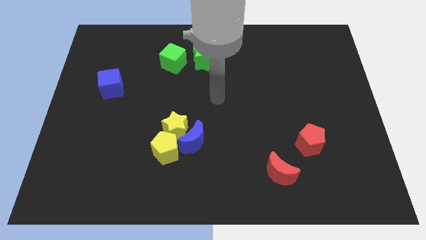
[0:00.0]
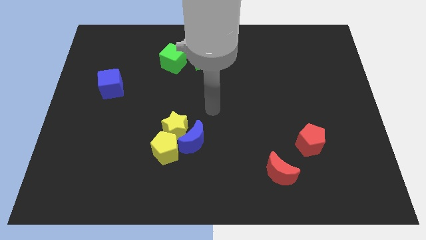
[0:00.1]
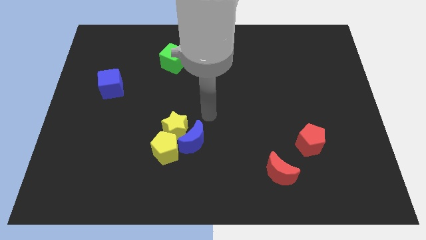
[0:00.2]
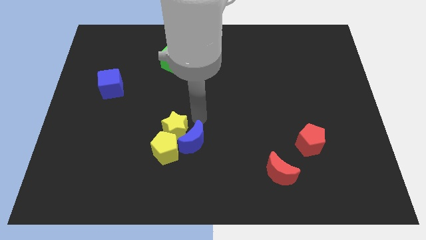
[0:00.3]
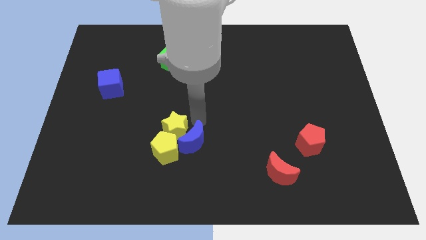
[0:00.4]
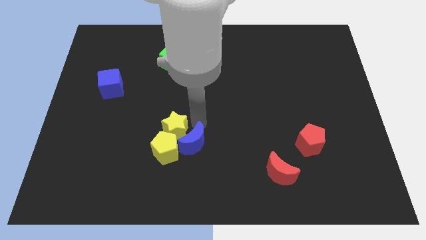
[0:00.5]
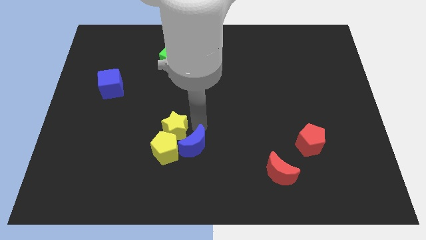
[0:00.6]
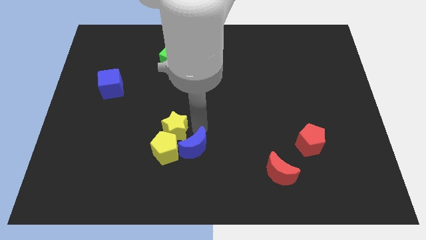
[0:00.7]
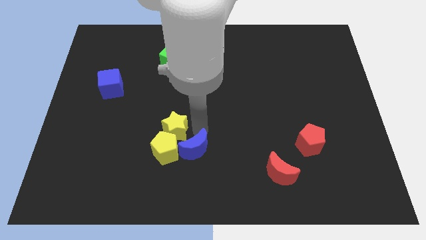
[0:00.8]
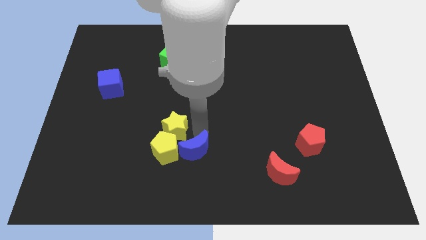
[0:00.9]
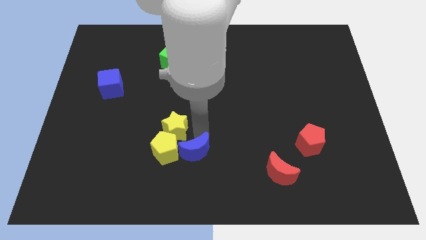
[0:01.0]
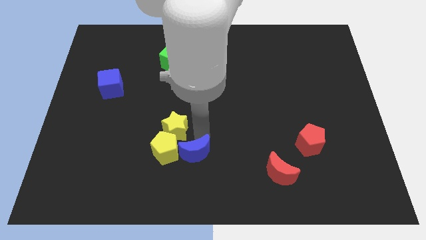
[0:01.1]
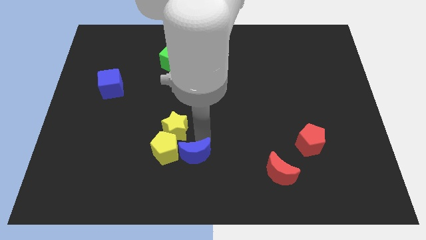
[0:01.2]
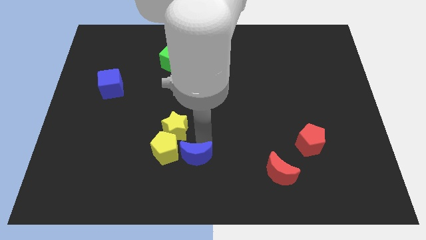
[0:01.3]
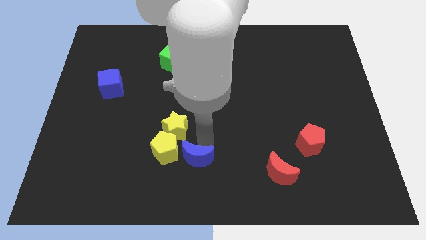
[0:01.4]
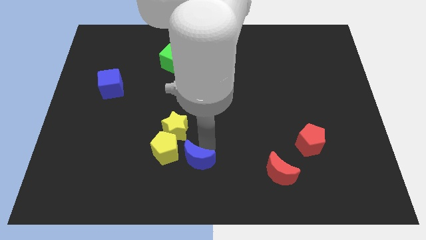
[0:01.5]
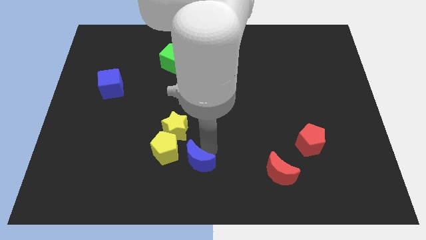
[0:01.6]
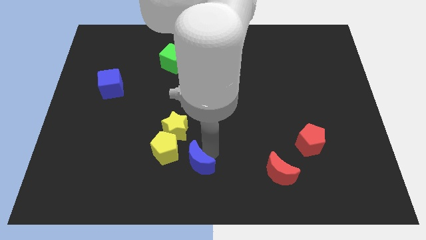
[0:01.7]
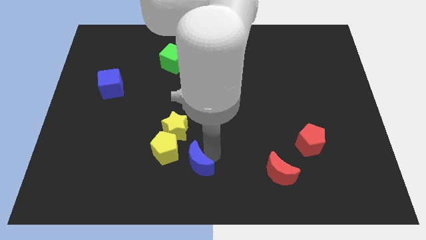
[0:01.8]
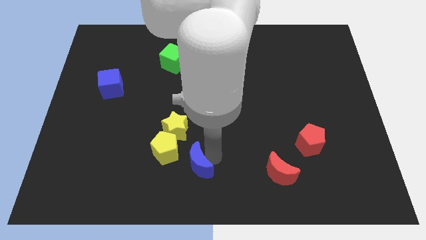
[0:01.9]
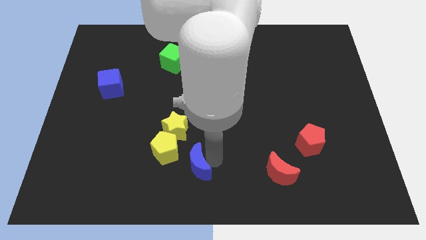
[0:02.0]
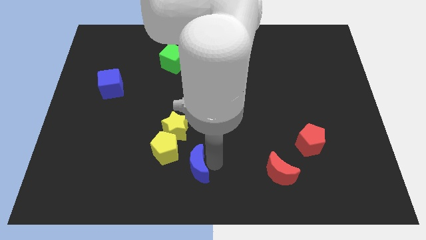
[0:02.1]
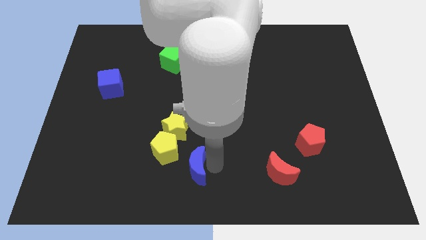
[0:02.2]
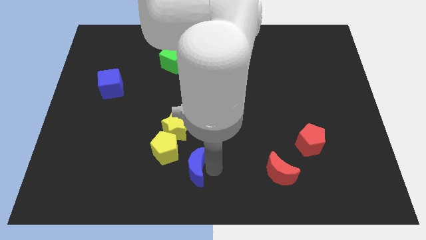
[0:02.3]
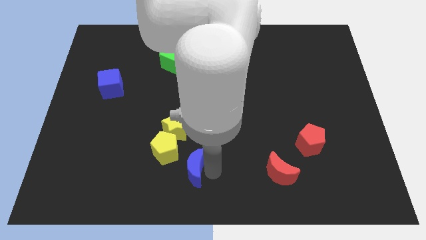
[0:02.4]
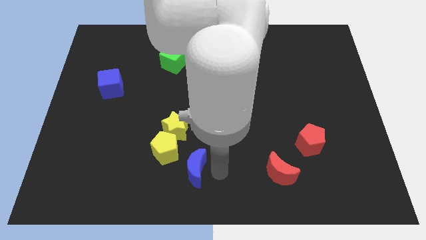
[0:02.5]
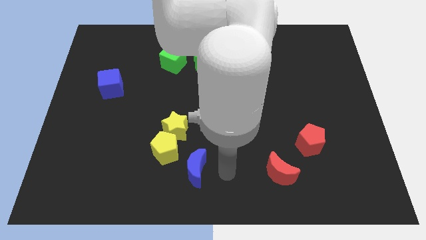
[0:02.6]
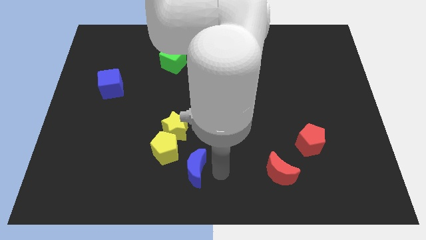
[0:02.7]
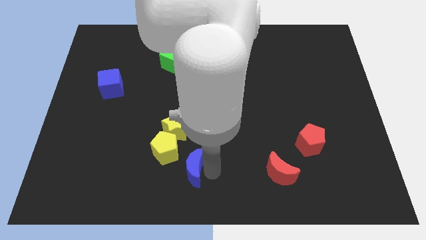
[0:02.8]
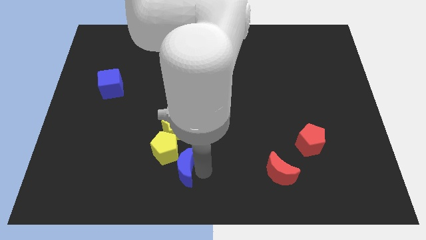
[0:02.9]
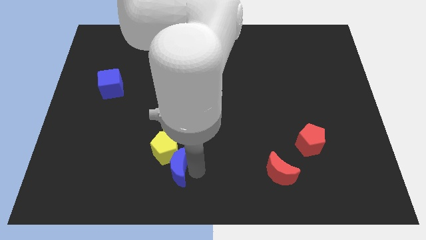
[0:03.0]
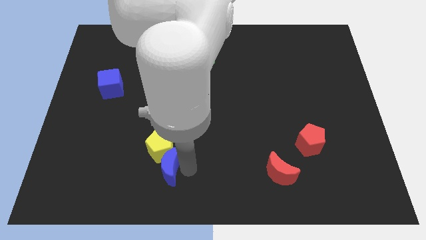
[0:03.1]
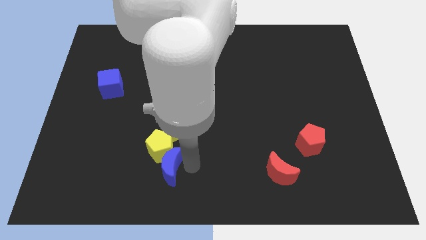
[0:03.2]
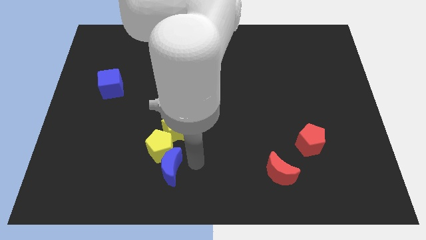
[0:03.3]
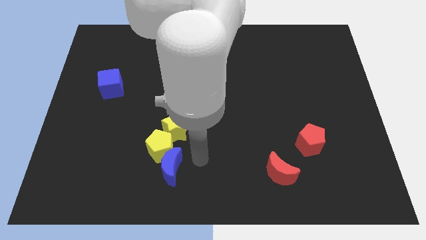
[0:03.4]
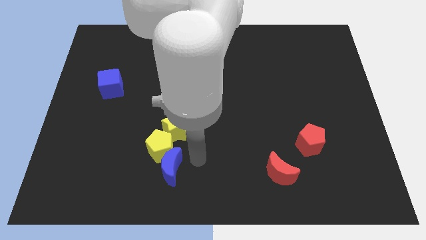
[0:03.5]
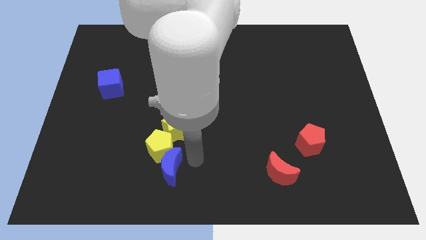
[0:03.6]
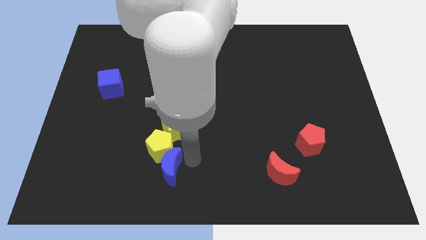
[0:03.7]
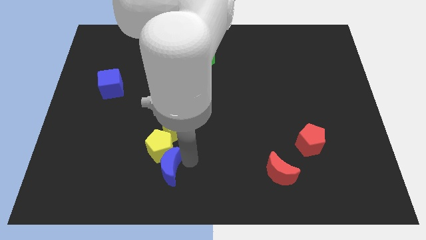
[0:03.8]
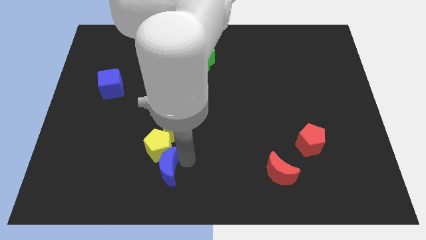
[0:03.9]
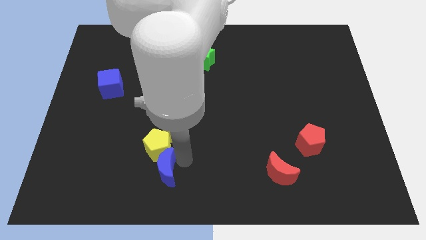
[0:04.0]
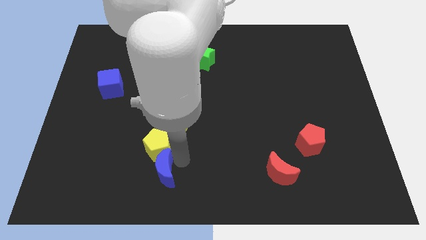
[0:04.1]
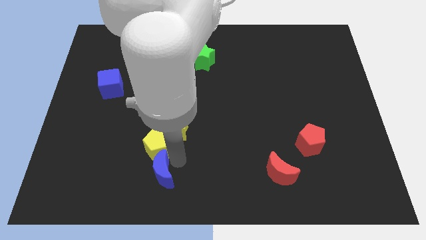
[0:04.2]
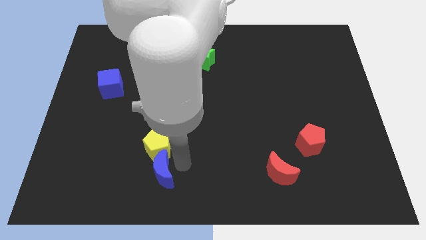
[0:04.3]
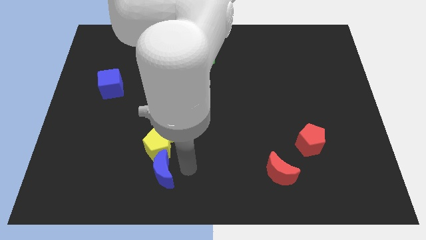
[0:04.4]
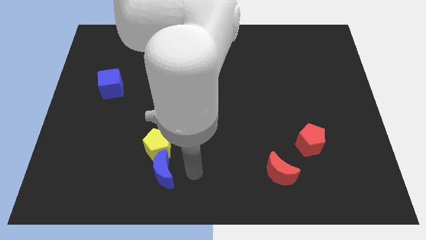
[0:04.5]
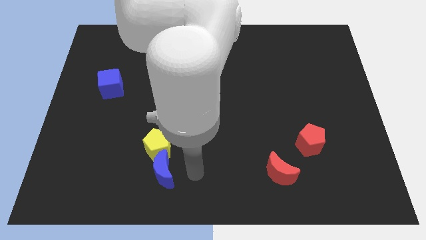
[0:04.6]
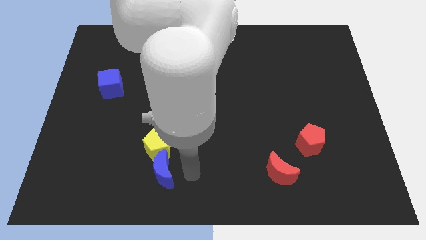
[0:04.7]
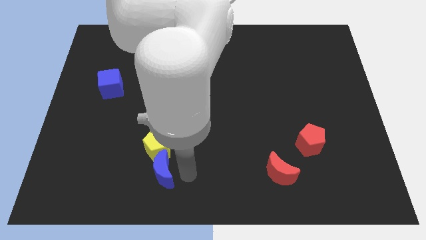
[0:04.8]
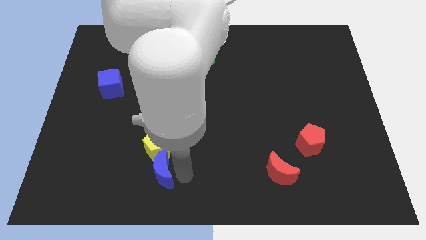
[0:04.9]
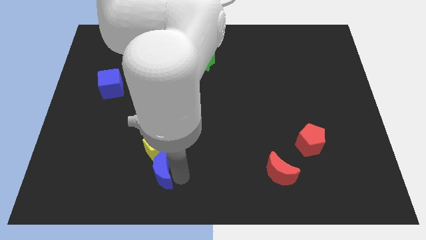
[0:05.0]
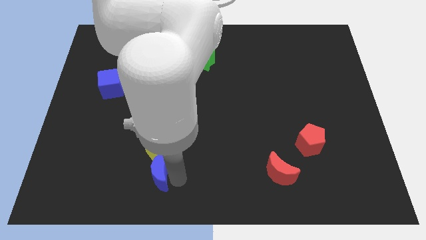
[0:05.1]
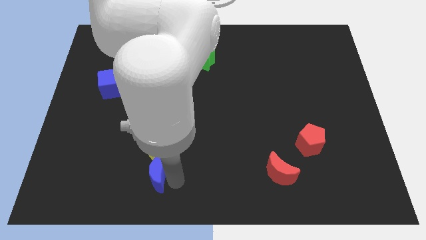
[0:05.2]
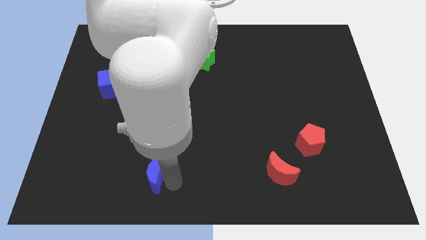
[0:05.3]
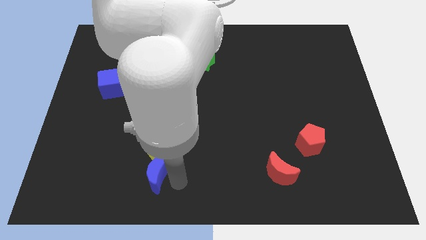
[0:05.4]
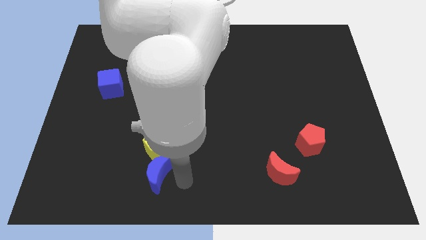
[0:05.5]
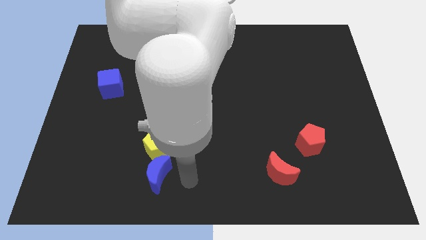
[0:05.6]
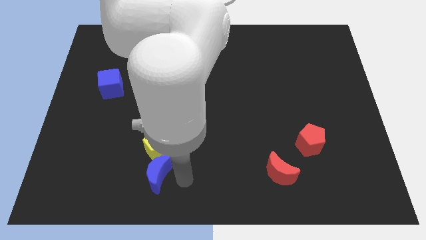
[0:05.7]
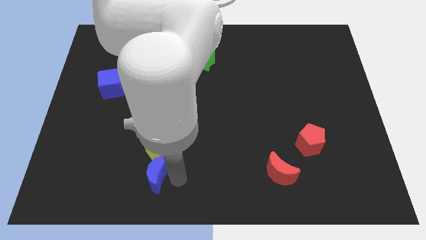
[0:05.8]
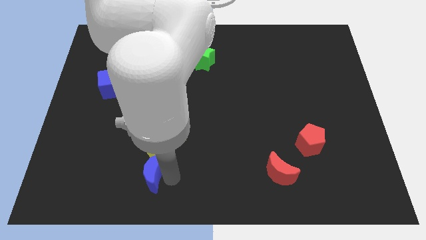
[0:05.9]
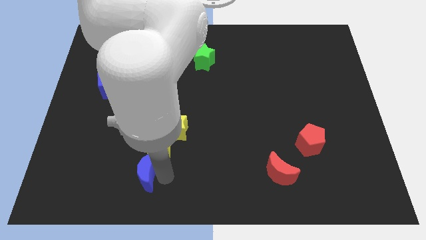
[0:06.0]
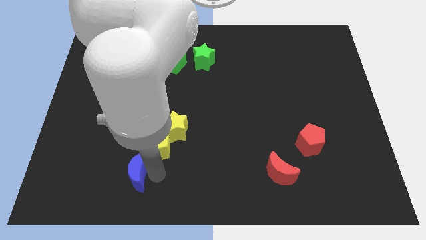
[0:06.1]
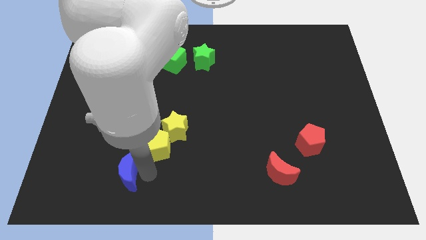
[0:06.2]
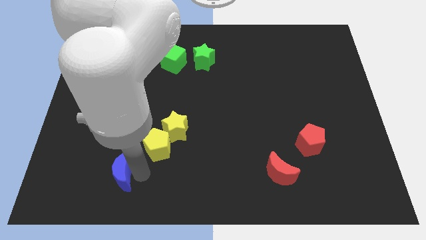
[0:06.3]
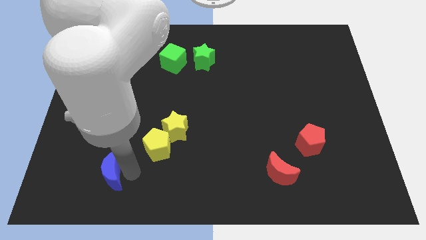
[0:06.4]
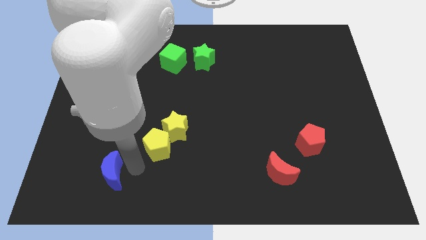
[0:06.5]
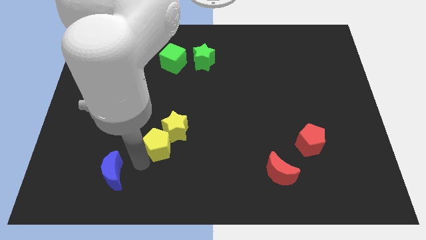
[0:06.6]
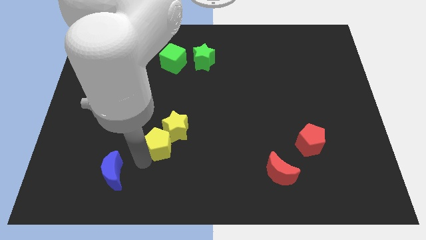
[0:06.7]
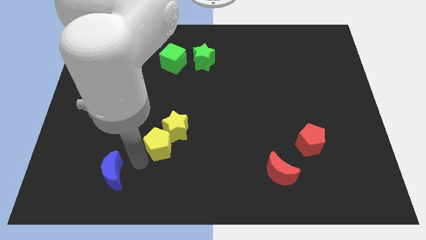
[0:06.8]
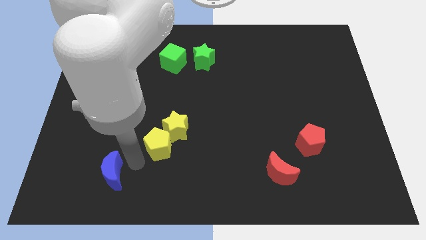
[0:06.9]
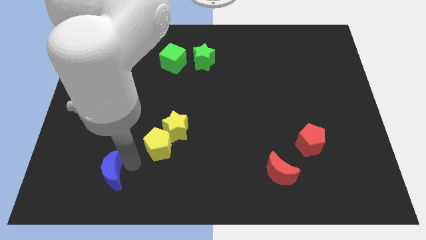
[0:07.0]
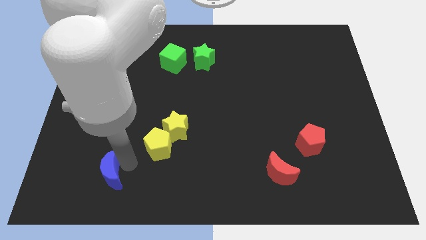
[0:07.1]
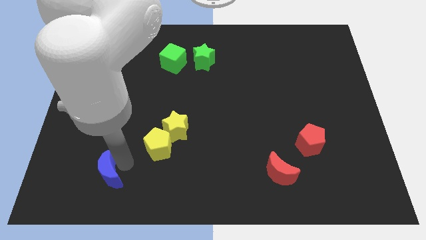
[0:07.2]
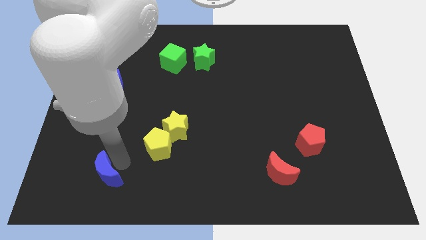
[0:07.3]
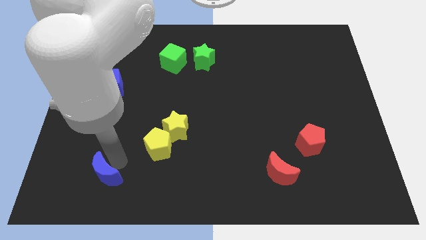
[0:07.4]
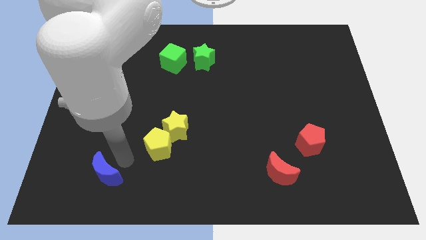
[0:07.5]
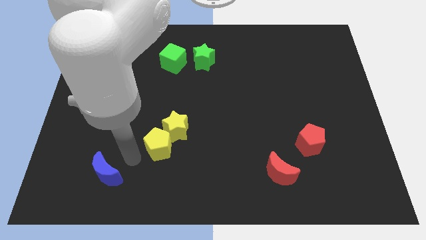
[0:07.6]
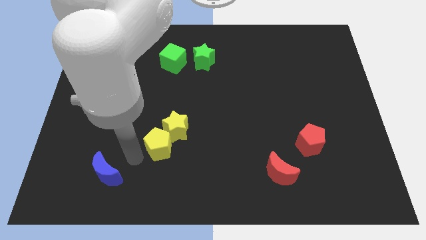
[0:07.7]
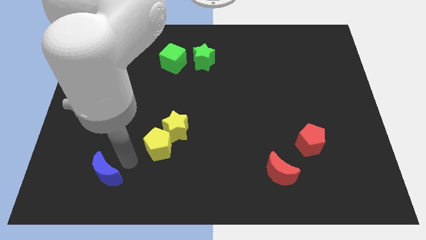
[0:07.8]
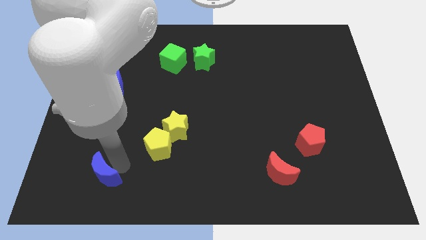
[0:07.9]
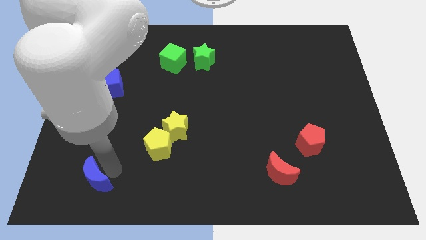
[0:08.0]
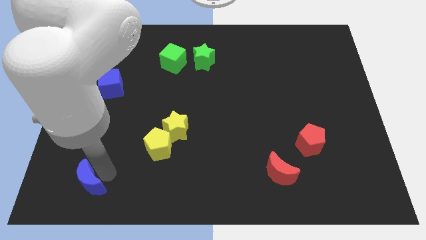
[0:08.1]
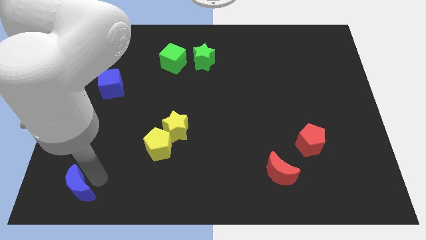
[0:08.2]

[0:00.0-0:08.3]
push the blue moon to the bottom left
